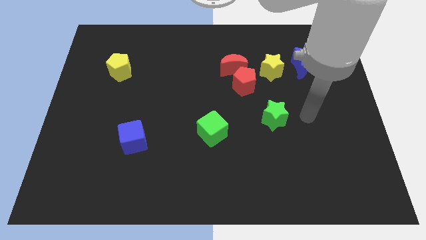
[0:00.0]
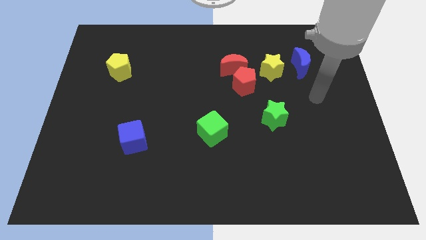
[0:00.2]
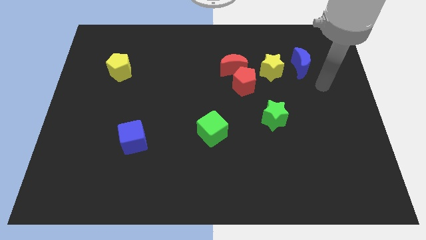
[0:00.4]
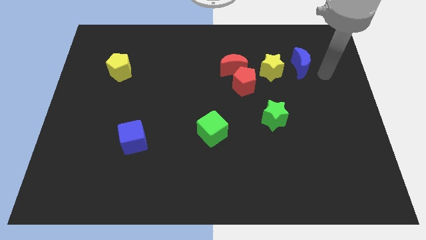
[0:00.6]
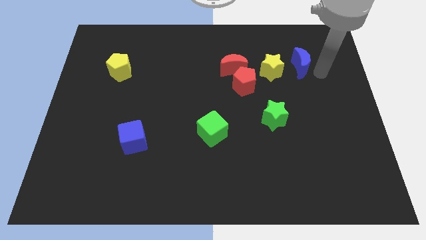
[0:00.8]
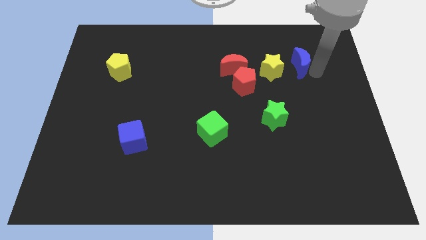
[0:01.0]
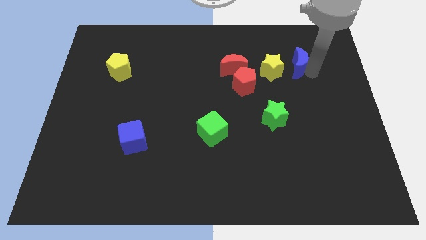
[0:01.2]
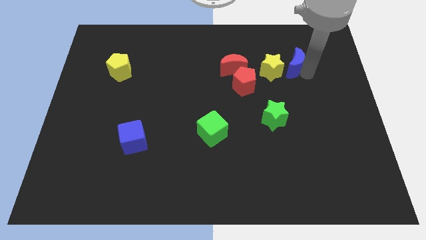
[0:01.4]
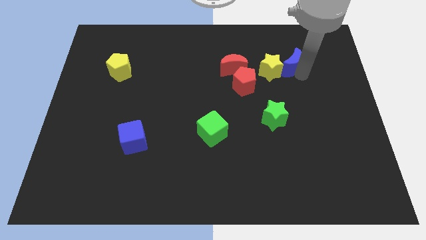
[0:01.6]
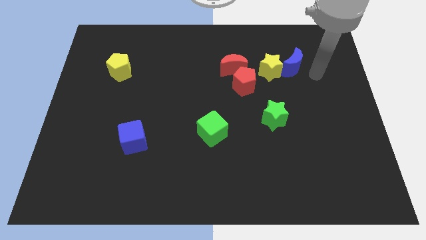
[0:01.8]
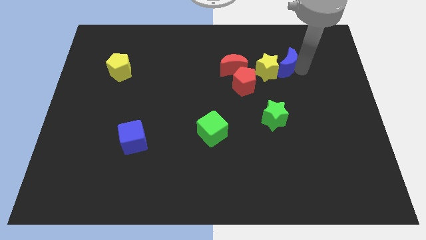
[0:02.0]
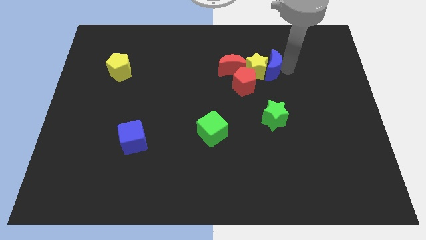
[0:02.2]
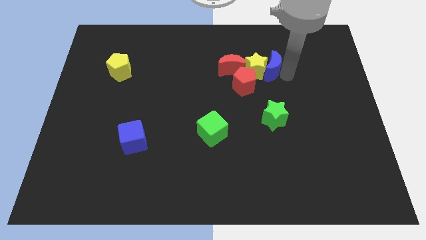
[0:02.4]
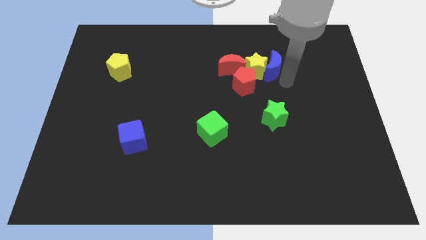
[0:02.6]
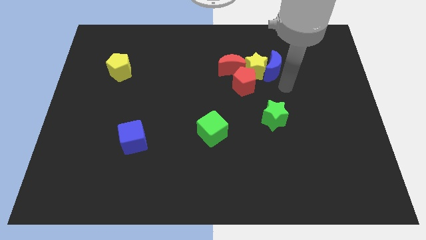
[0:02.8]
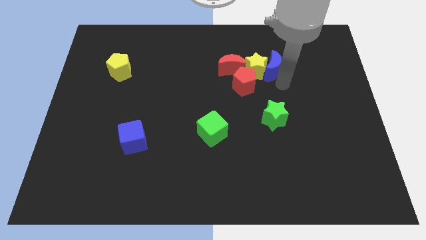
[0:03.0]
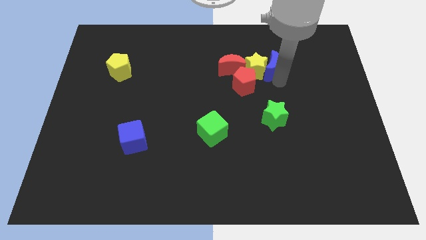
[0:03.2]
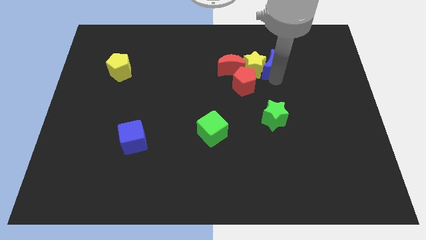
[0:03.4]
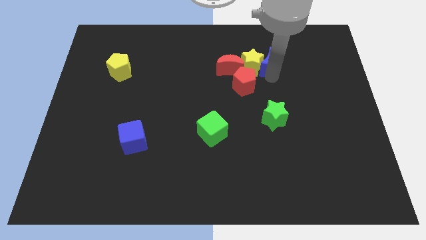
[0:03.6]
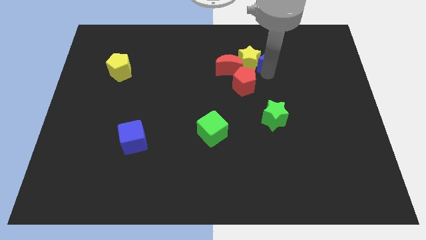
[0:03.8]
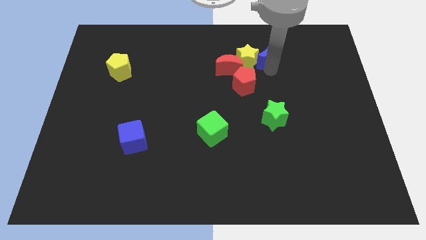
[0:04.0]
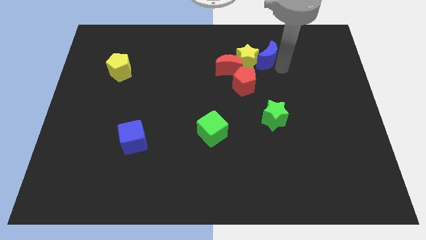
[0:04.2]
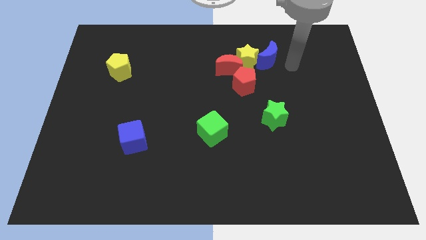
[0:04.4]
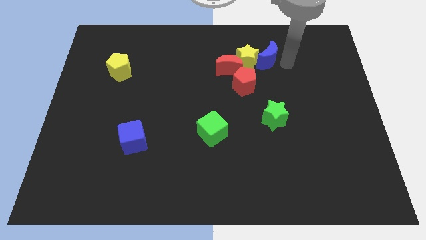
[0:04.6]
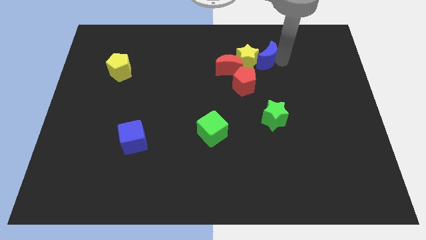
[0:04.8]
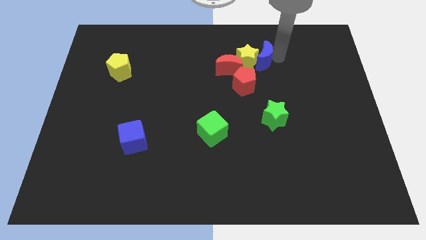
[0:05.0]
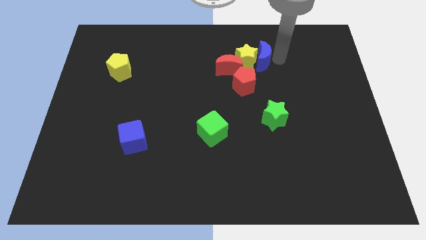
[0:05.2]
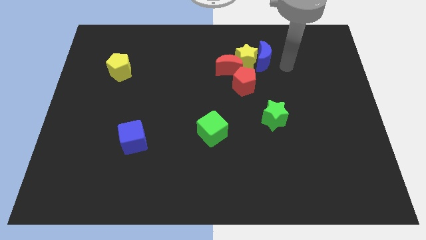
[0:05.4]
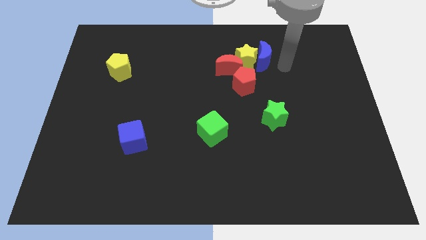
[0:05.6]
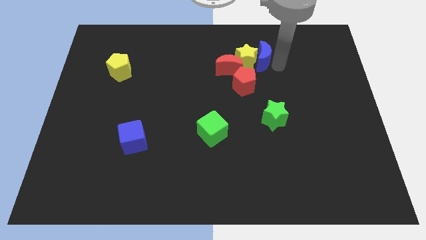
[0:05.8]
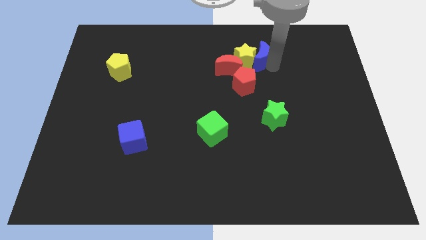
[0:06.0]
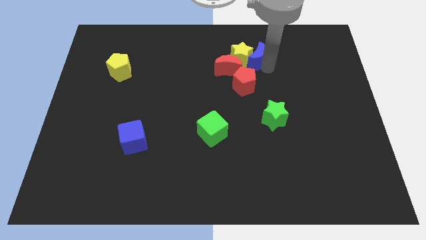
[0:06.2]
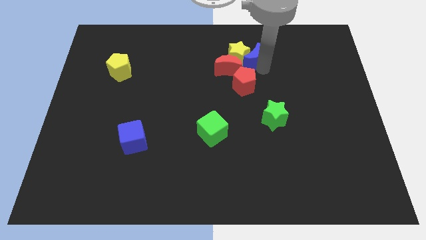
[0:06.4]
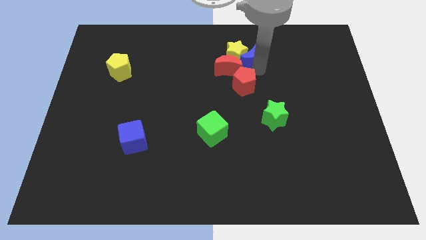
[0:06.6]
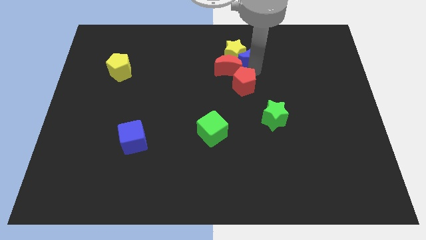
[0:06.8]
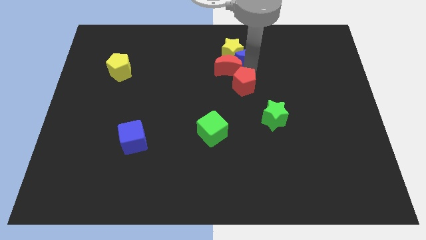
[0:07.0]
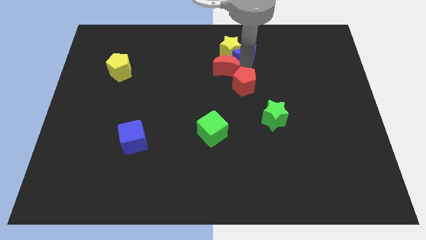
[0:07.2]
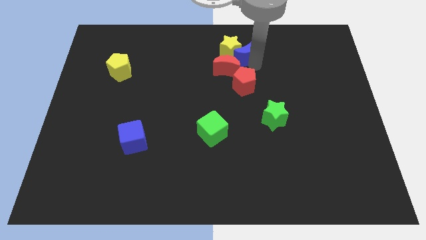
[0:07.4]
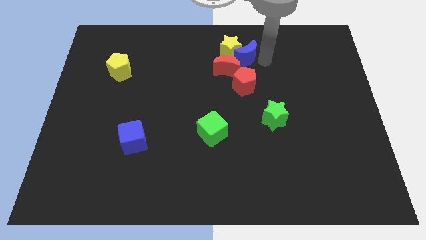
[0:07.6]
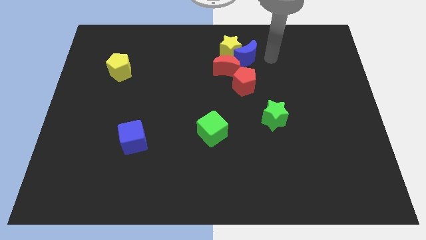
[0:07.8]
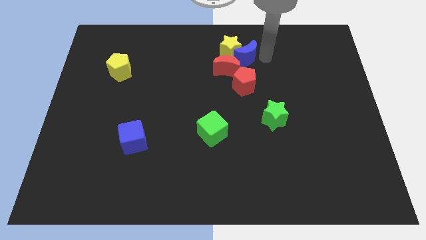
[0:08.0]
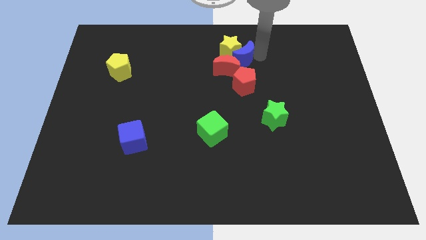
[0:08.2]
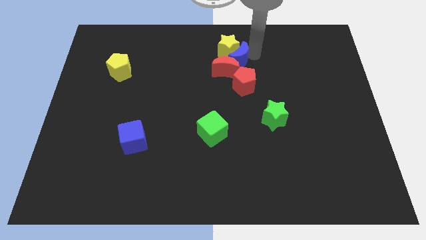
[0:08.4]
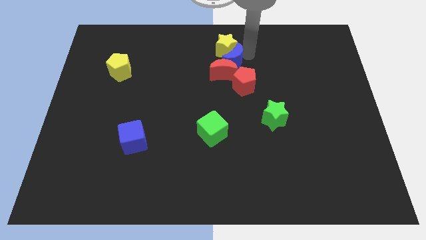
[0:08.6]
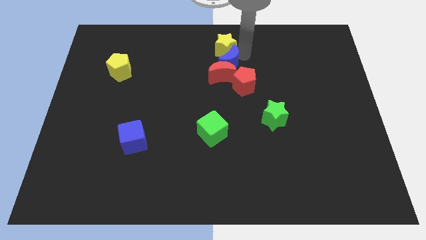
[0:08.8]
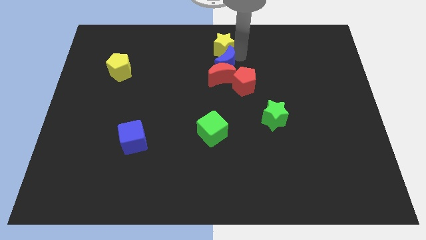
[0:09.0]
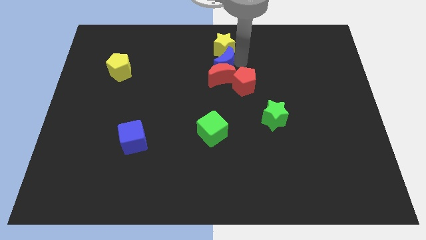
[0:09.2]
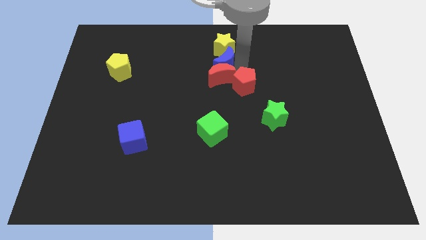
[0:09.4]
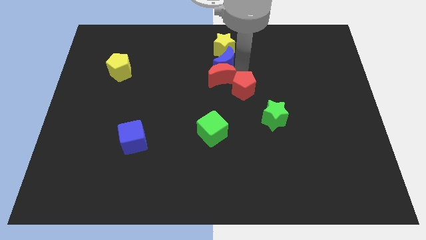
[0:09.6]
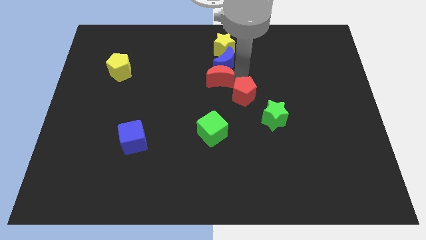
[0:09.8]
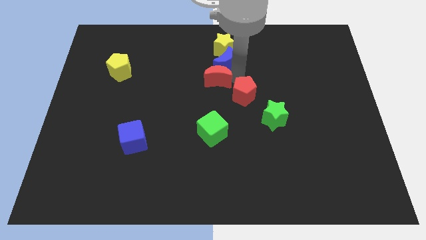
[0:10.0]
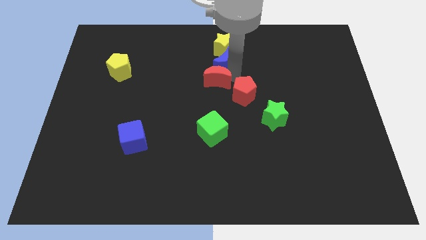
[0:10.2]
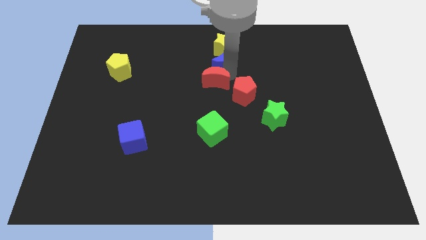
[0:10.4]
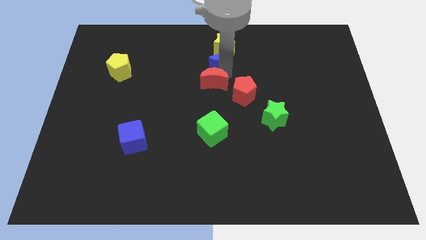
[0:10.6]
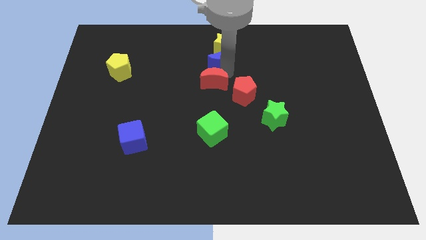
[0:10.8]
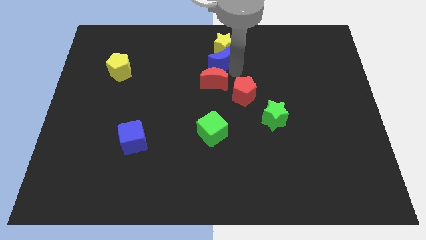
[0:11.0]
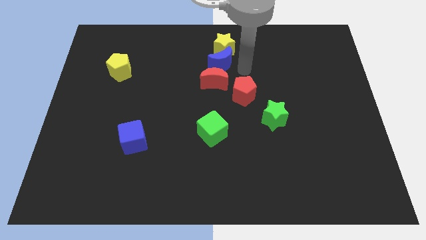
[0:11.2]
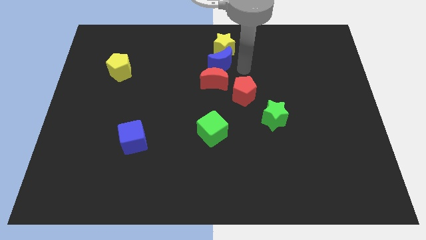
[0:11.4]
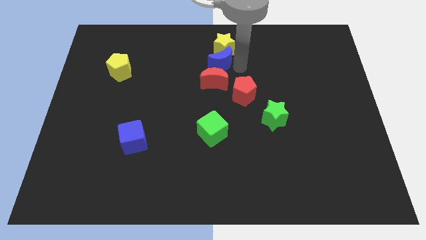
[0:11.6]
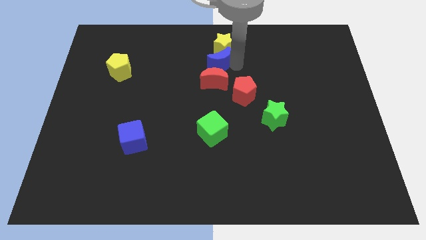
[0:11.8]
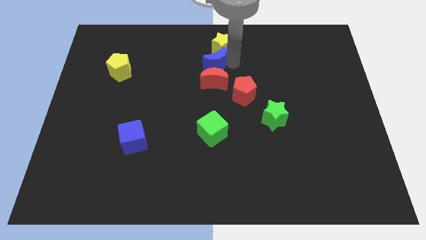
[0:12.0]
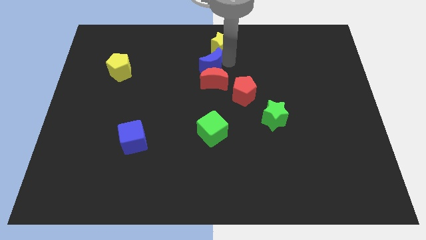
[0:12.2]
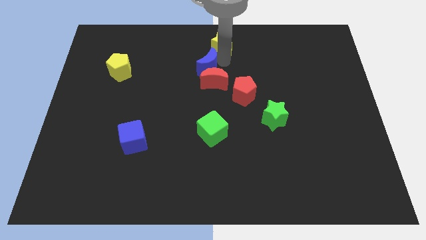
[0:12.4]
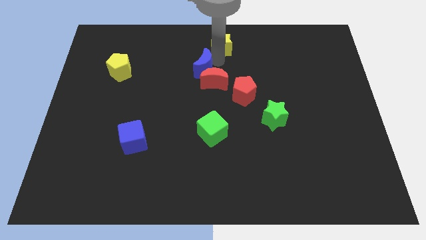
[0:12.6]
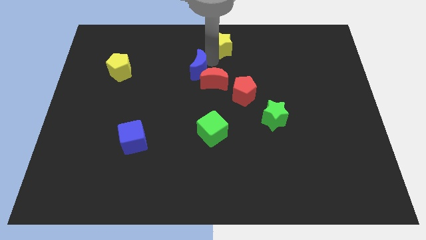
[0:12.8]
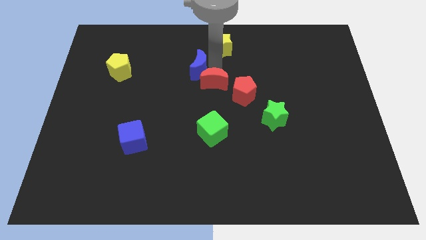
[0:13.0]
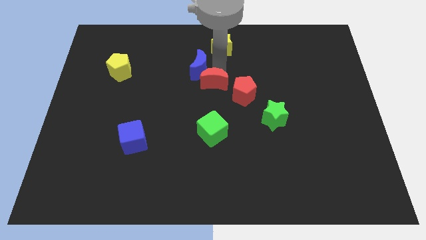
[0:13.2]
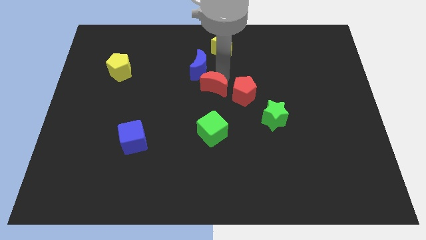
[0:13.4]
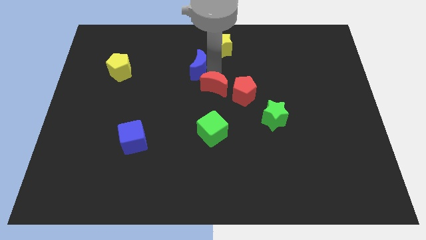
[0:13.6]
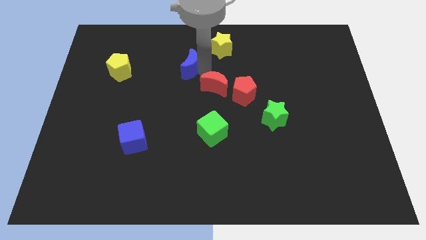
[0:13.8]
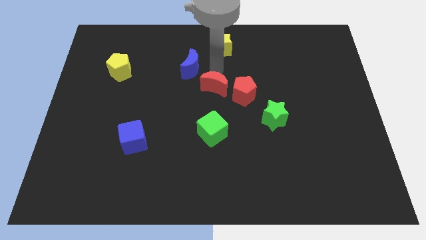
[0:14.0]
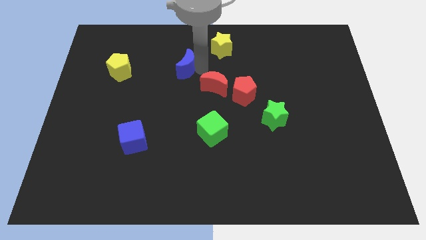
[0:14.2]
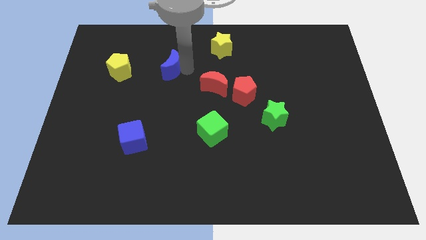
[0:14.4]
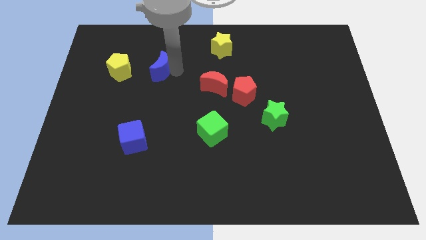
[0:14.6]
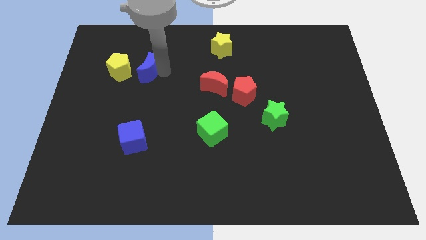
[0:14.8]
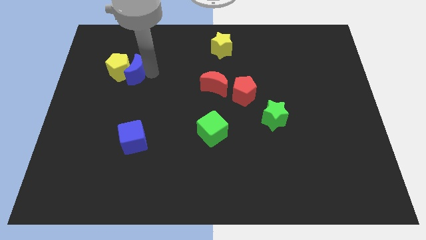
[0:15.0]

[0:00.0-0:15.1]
move the blue moon close to the yellow pentagon
